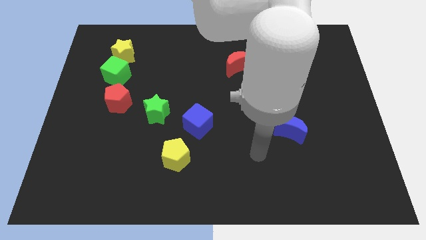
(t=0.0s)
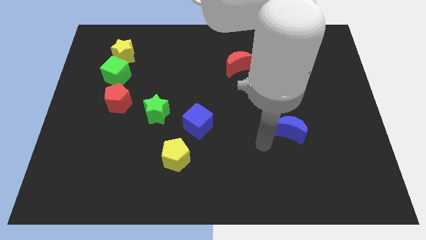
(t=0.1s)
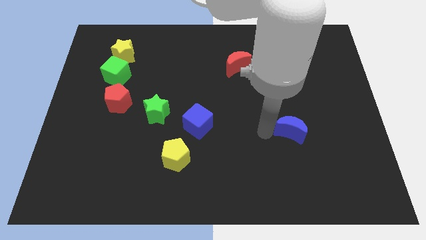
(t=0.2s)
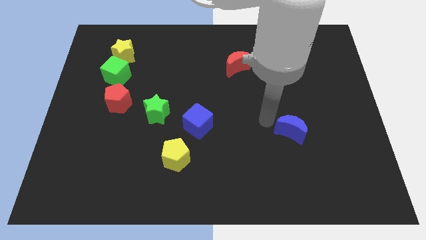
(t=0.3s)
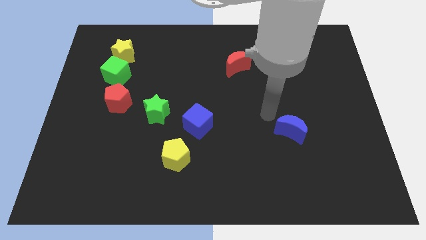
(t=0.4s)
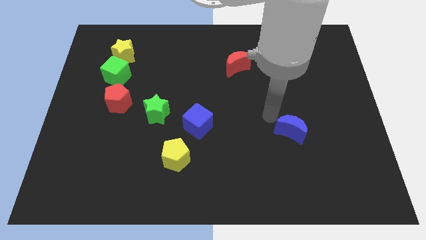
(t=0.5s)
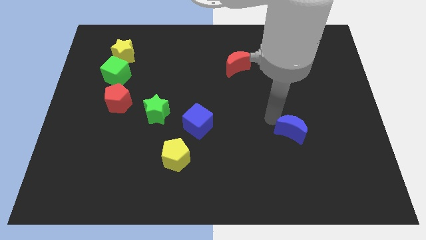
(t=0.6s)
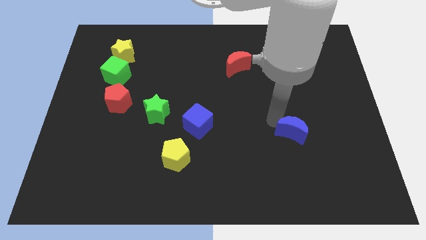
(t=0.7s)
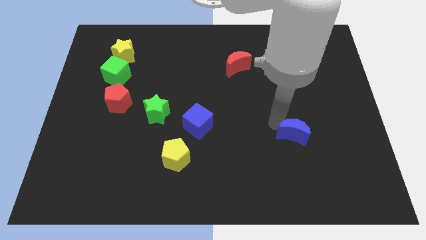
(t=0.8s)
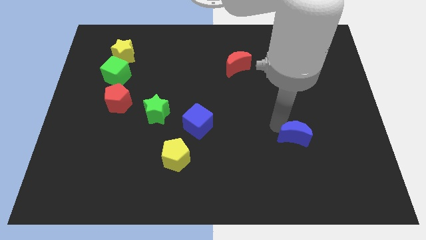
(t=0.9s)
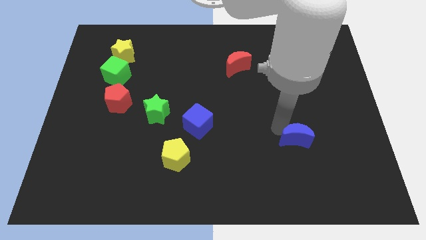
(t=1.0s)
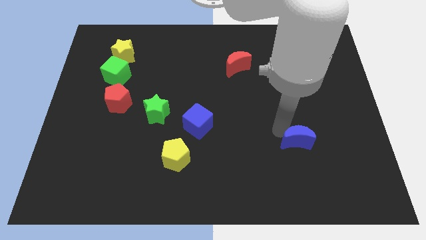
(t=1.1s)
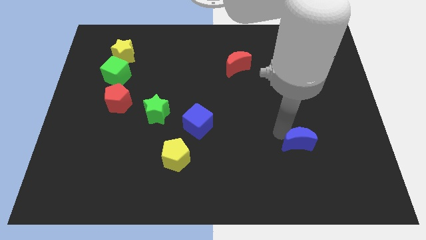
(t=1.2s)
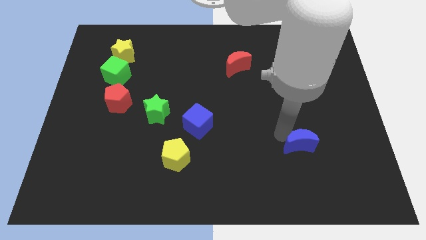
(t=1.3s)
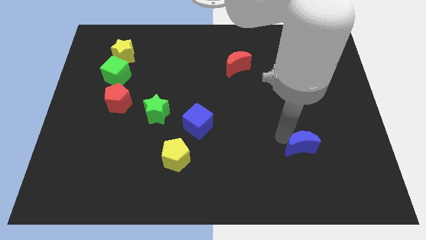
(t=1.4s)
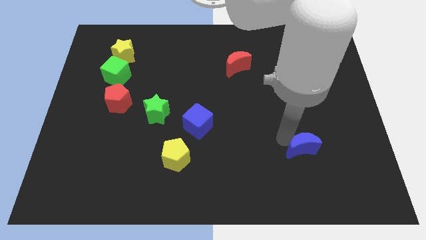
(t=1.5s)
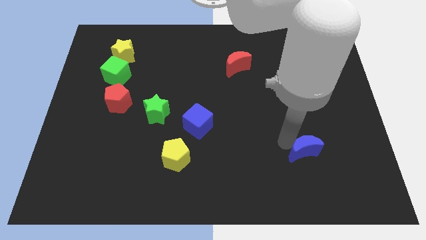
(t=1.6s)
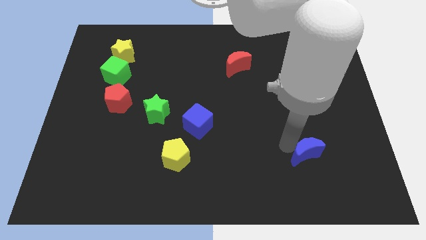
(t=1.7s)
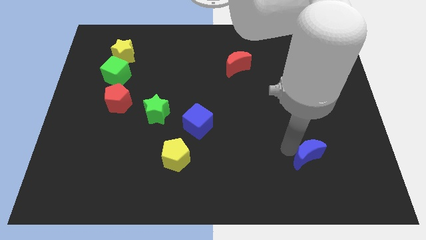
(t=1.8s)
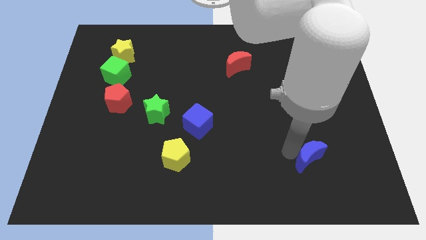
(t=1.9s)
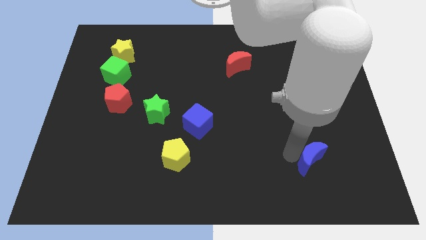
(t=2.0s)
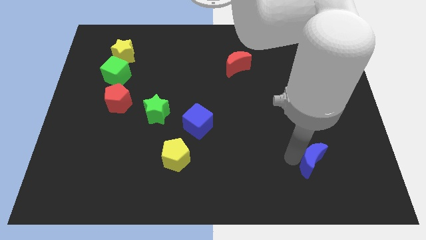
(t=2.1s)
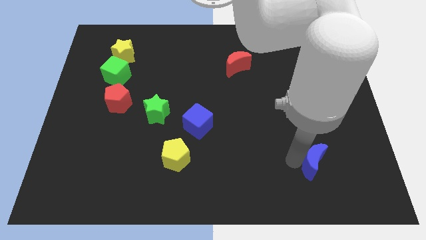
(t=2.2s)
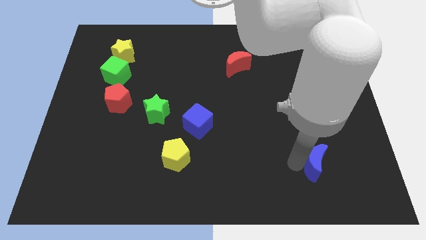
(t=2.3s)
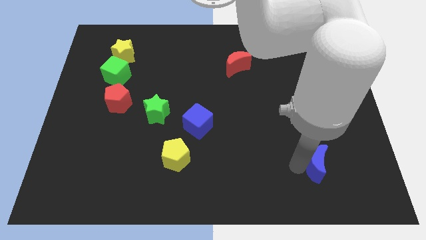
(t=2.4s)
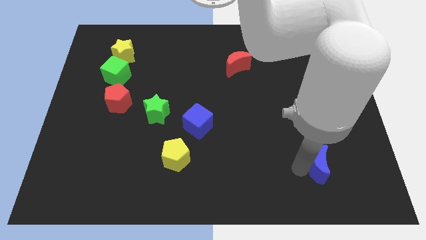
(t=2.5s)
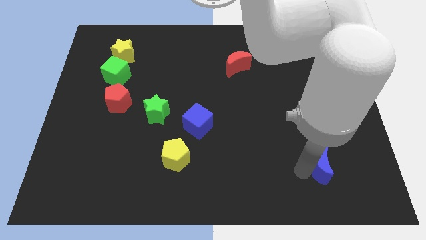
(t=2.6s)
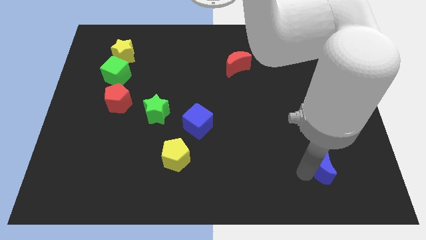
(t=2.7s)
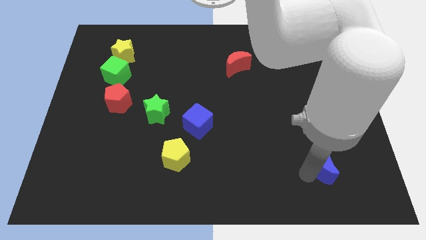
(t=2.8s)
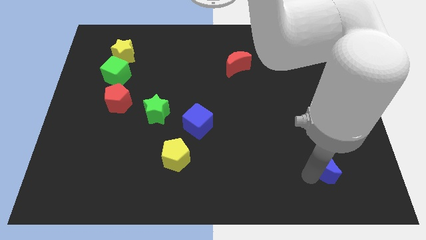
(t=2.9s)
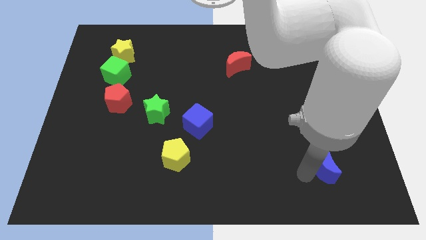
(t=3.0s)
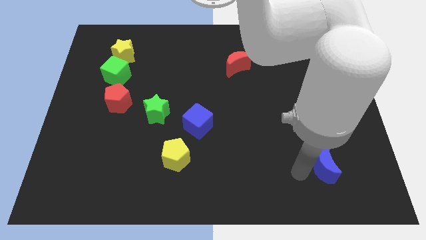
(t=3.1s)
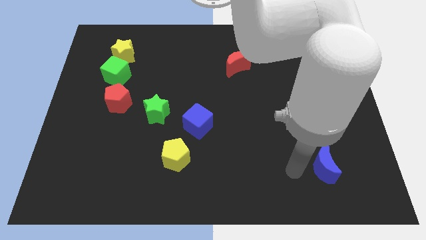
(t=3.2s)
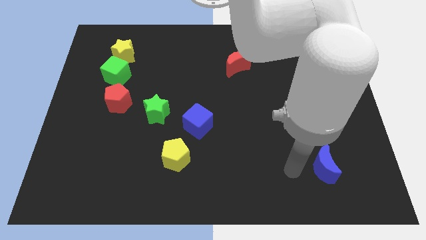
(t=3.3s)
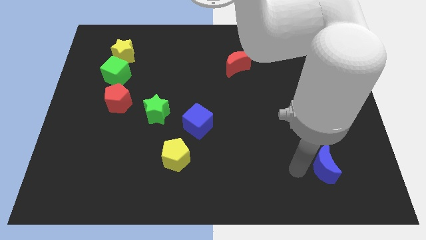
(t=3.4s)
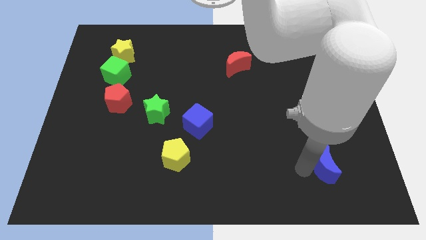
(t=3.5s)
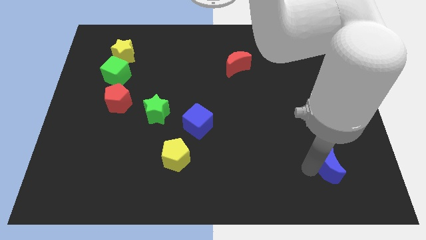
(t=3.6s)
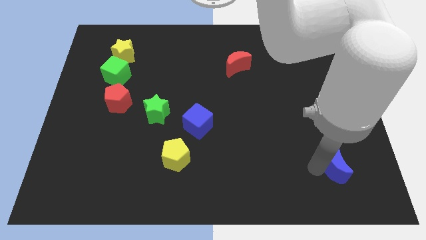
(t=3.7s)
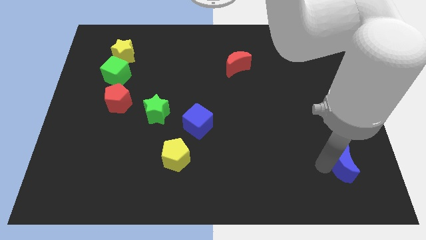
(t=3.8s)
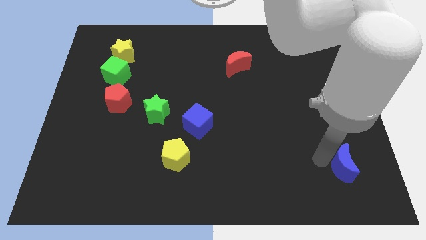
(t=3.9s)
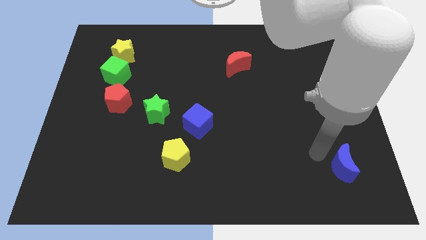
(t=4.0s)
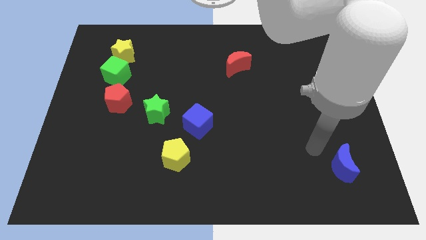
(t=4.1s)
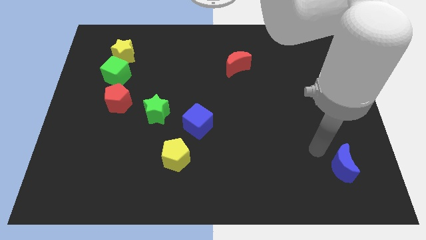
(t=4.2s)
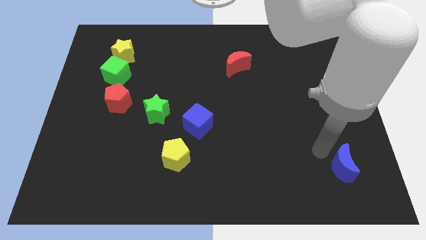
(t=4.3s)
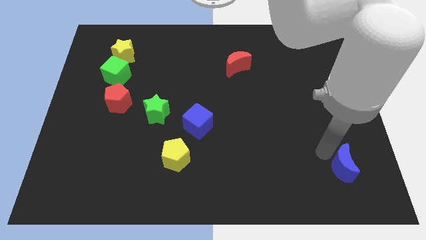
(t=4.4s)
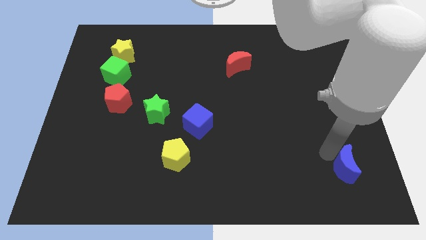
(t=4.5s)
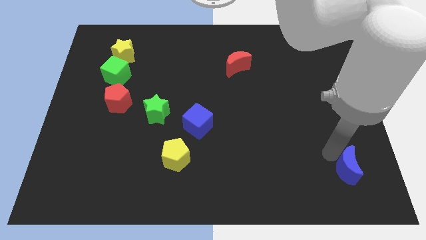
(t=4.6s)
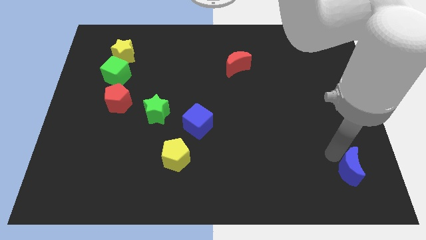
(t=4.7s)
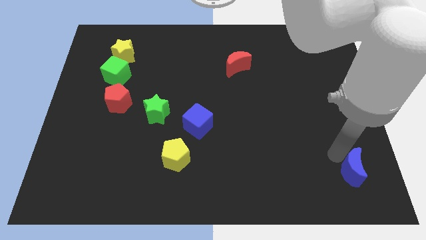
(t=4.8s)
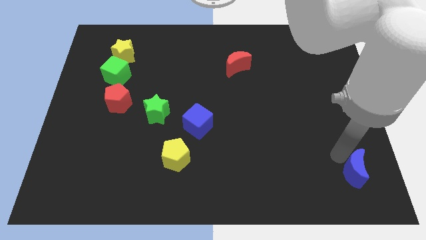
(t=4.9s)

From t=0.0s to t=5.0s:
put the blue moon to the bottom right corner
